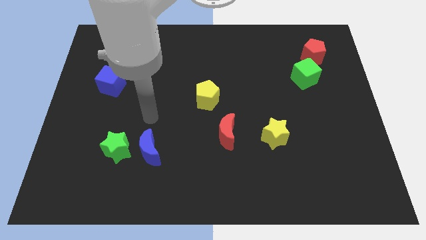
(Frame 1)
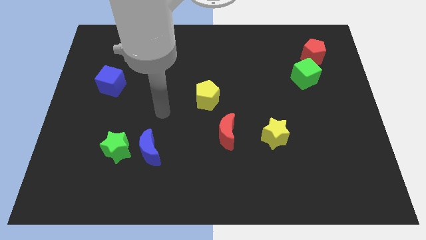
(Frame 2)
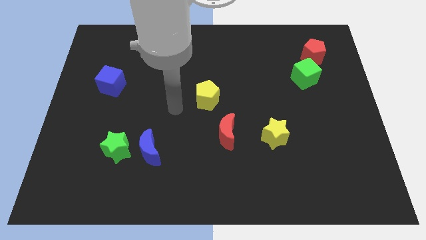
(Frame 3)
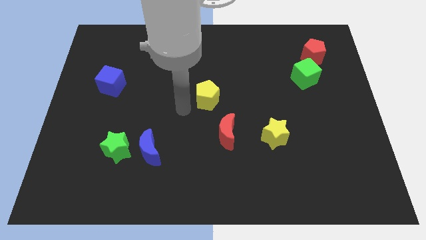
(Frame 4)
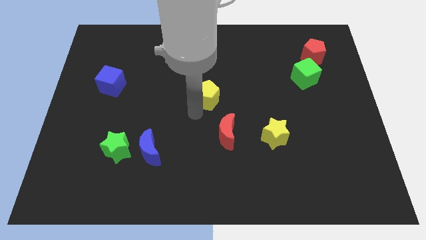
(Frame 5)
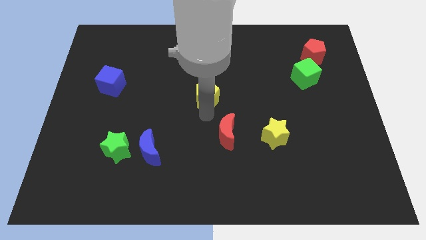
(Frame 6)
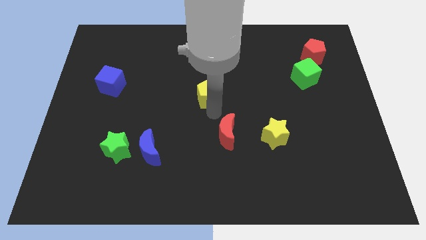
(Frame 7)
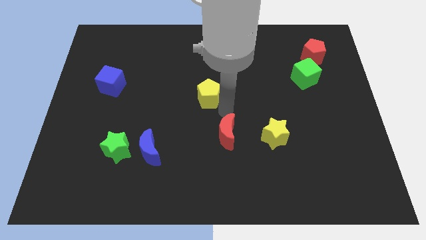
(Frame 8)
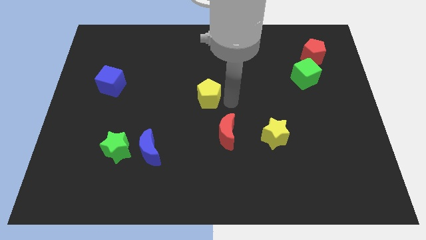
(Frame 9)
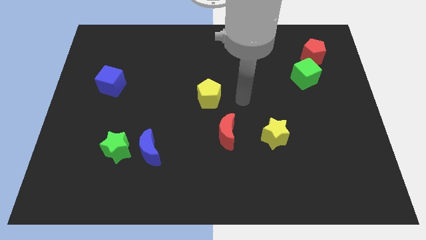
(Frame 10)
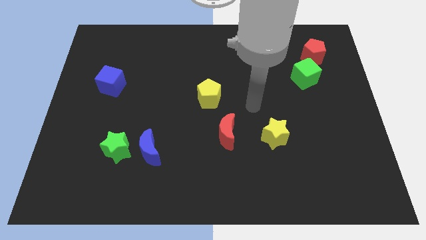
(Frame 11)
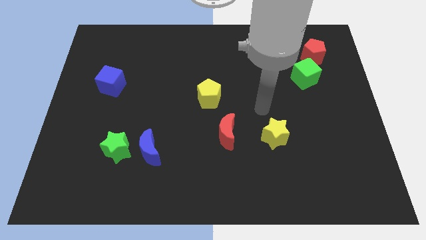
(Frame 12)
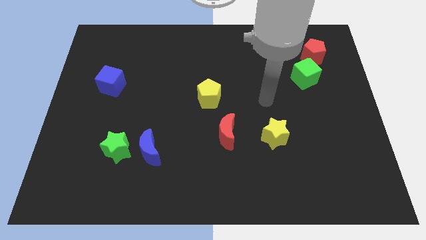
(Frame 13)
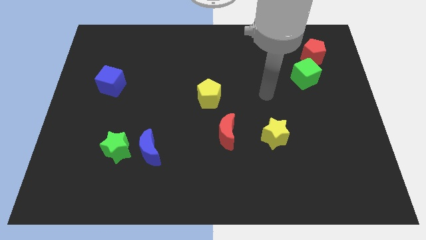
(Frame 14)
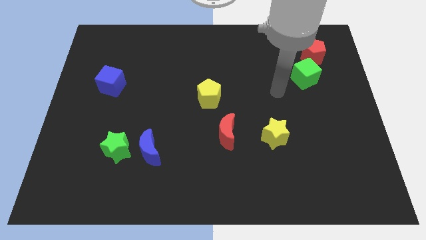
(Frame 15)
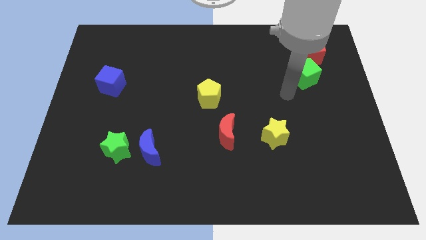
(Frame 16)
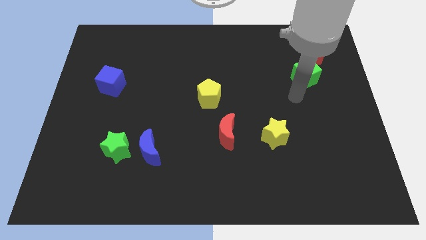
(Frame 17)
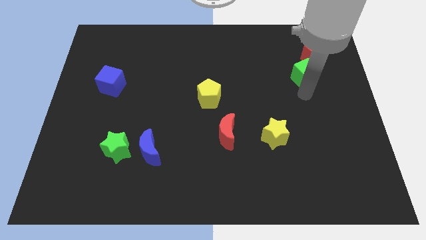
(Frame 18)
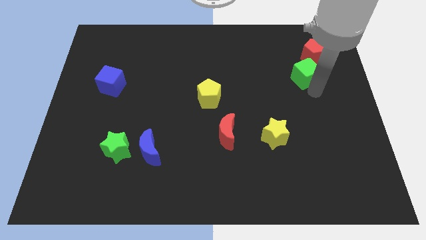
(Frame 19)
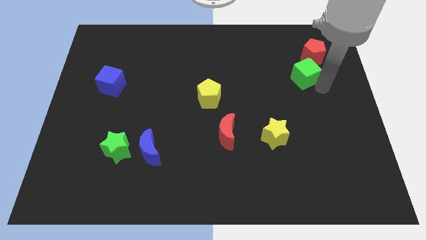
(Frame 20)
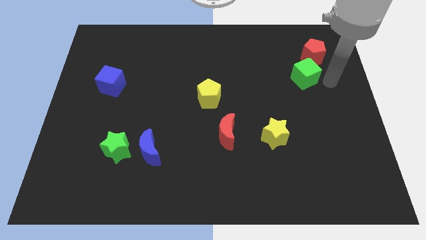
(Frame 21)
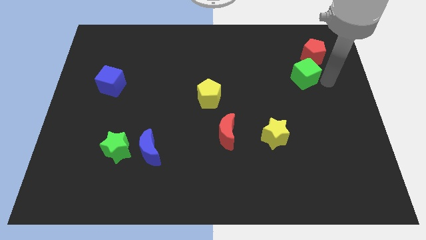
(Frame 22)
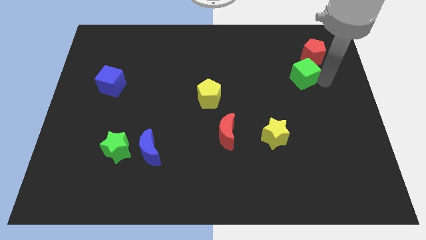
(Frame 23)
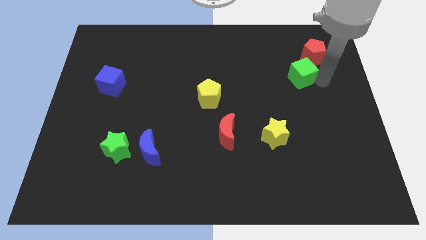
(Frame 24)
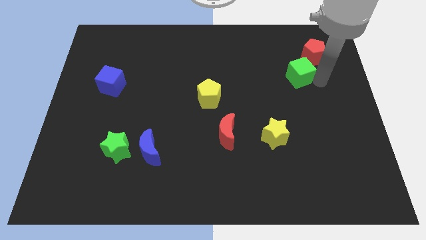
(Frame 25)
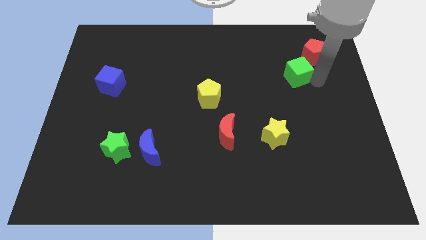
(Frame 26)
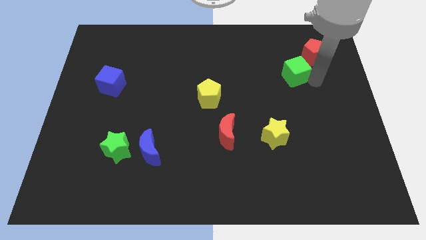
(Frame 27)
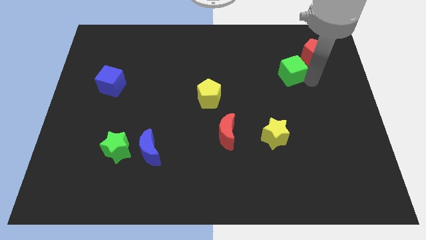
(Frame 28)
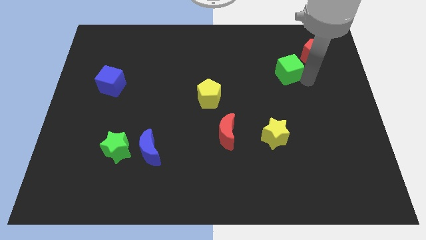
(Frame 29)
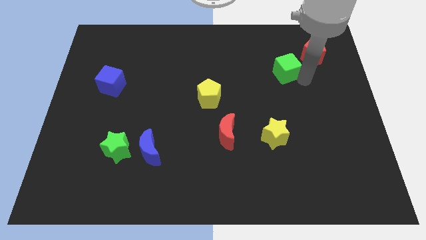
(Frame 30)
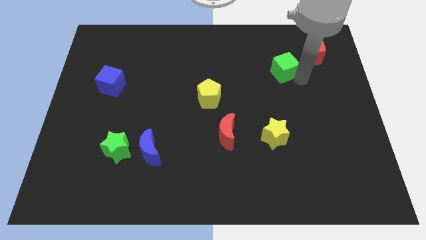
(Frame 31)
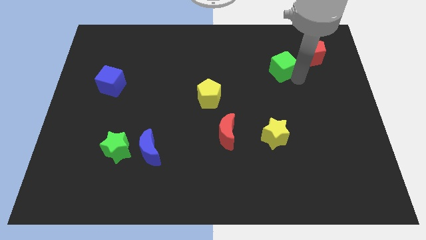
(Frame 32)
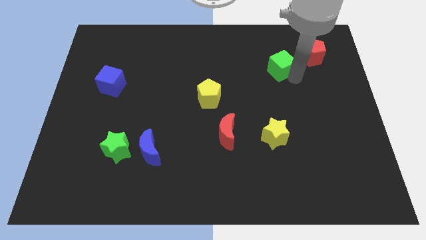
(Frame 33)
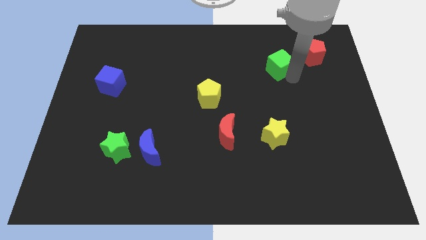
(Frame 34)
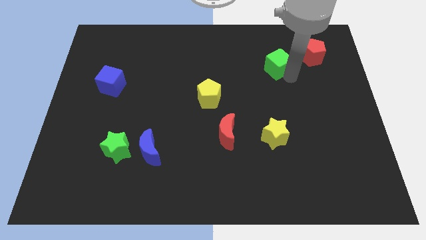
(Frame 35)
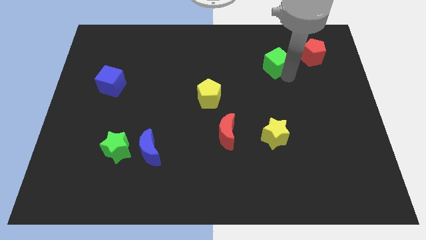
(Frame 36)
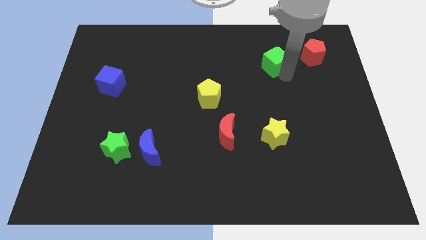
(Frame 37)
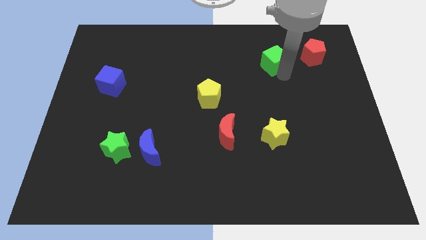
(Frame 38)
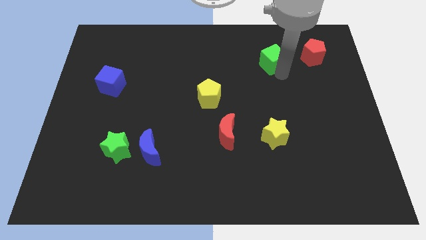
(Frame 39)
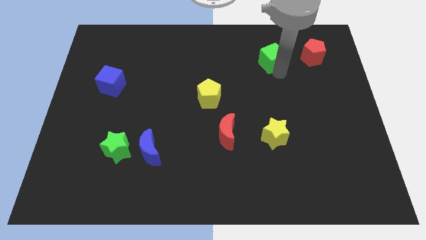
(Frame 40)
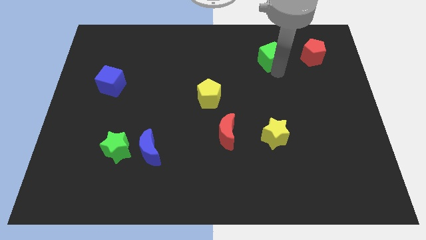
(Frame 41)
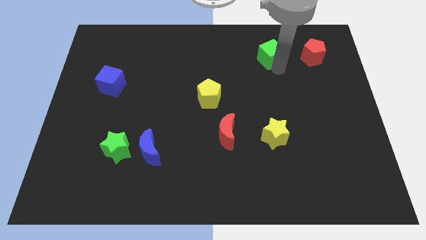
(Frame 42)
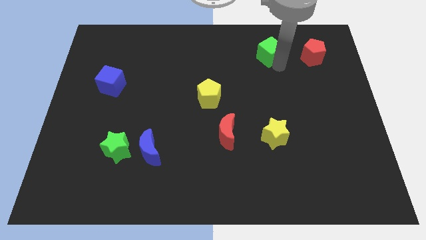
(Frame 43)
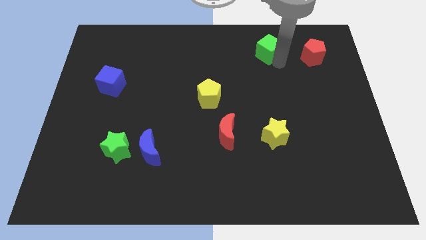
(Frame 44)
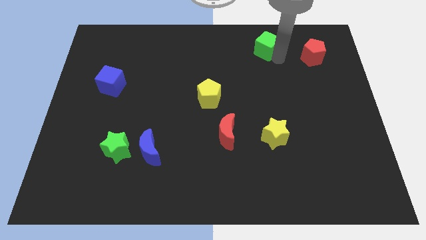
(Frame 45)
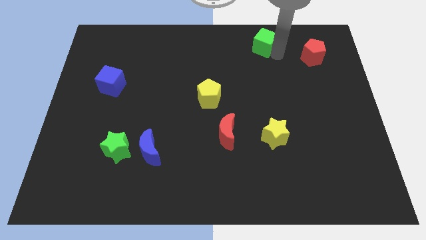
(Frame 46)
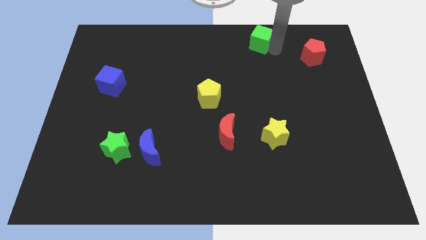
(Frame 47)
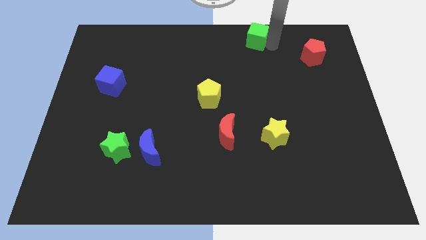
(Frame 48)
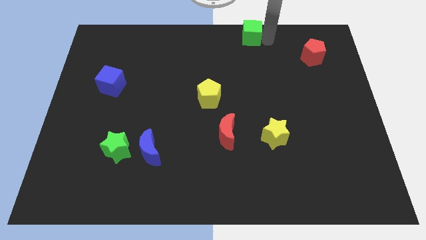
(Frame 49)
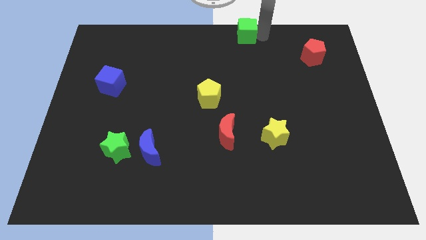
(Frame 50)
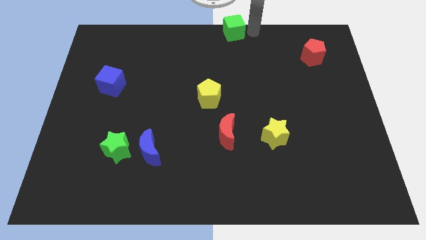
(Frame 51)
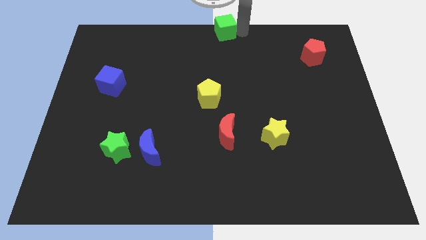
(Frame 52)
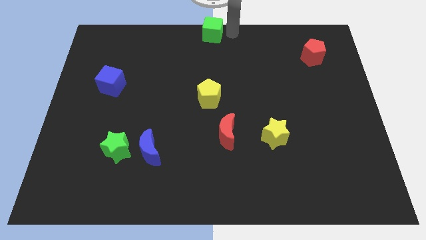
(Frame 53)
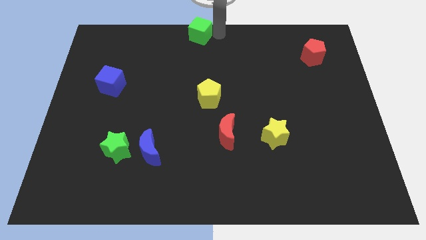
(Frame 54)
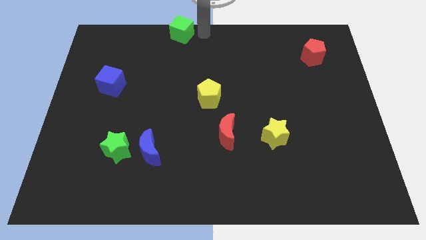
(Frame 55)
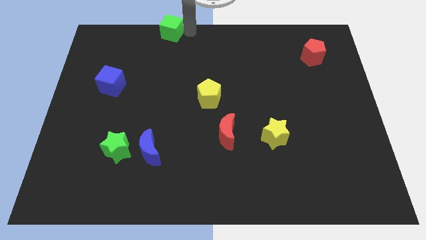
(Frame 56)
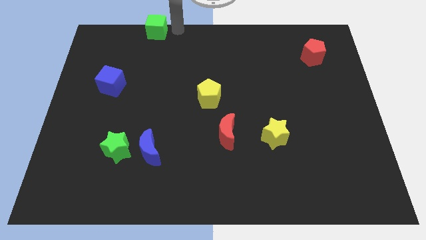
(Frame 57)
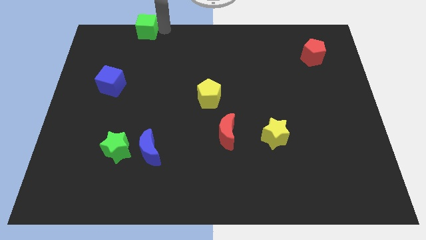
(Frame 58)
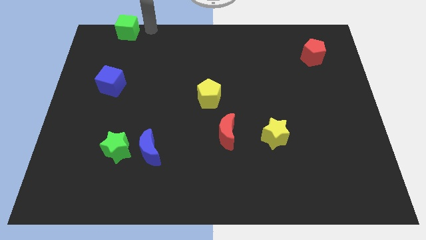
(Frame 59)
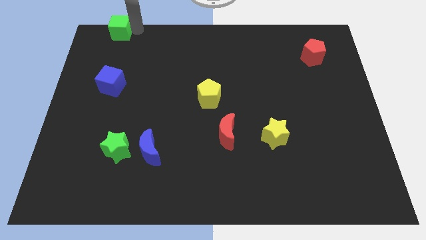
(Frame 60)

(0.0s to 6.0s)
push the green cube to the upper left corner
